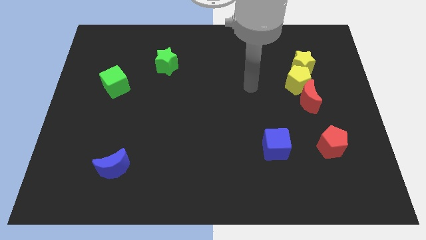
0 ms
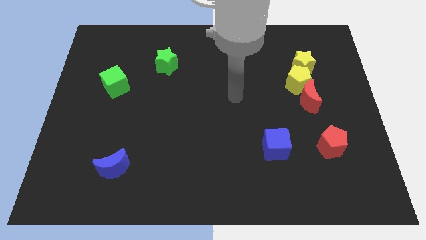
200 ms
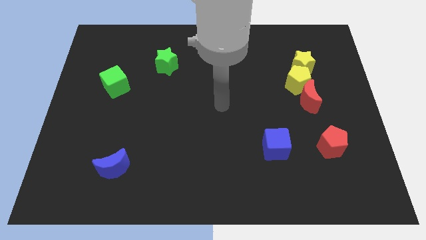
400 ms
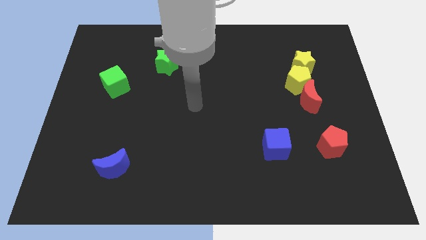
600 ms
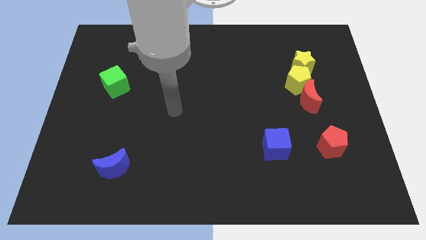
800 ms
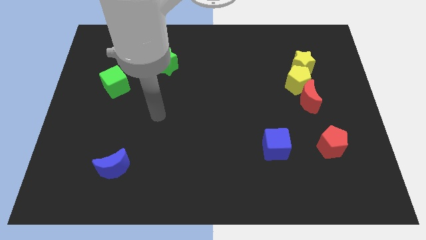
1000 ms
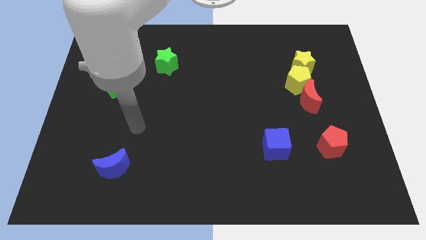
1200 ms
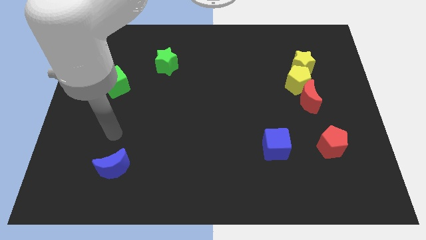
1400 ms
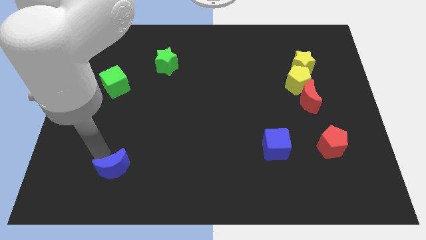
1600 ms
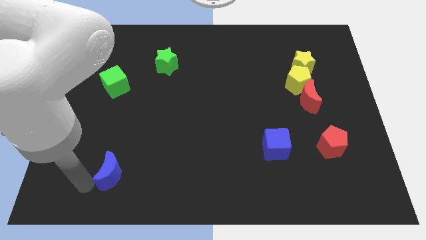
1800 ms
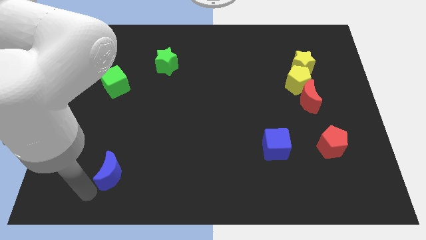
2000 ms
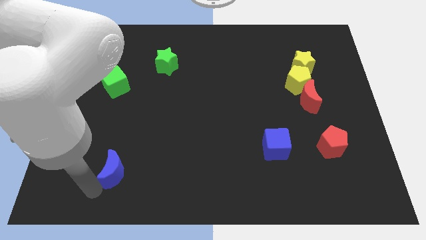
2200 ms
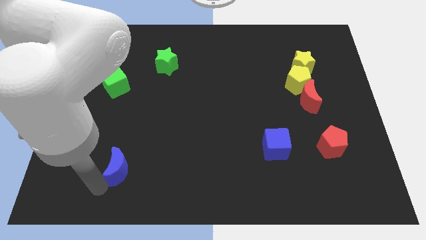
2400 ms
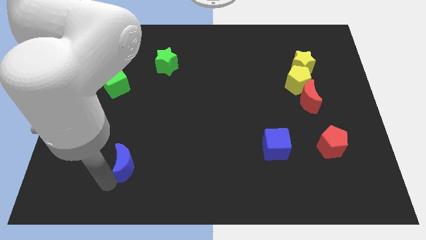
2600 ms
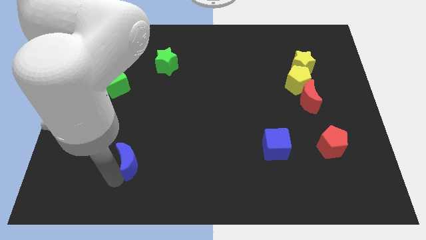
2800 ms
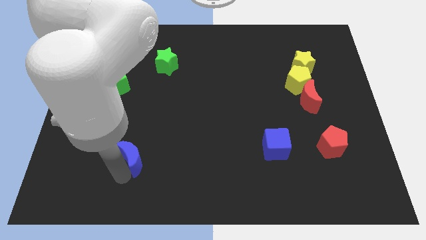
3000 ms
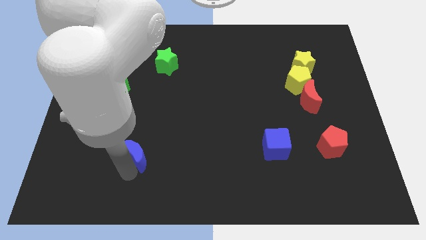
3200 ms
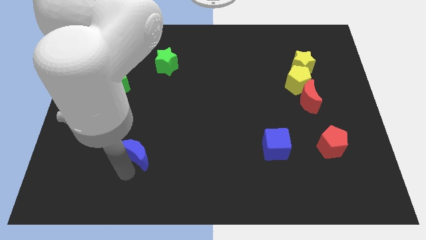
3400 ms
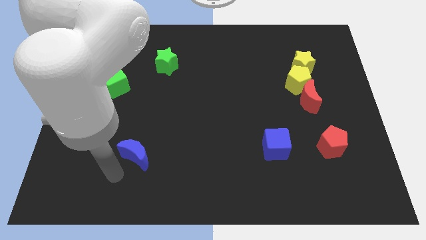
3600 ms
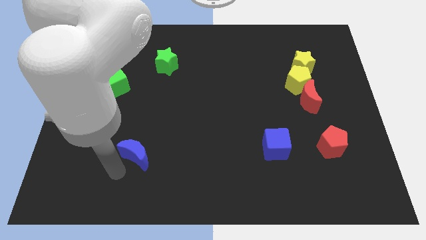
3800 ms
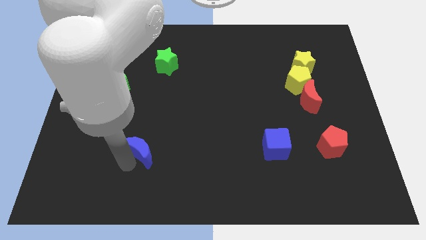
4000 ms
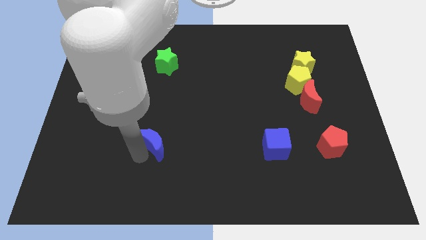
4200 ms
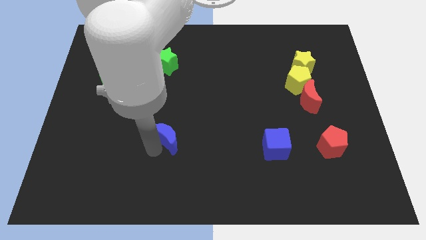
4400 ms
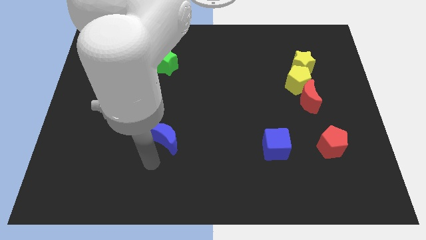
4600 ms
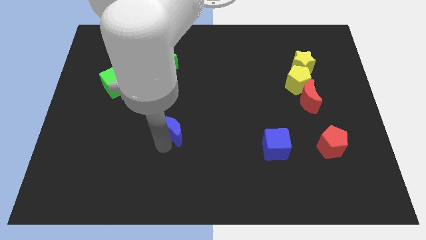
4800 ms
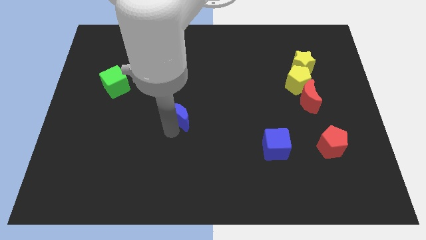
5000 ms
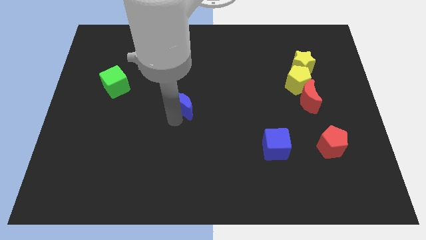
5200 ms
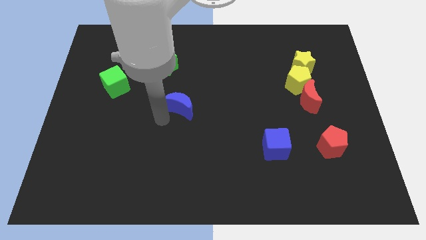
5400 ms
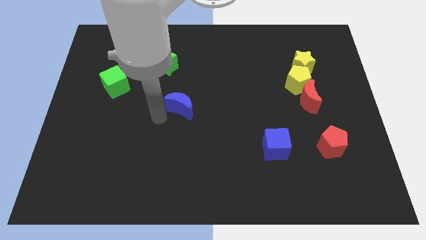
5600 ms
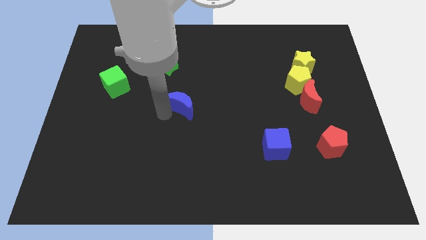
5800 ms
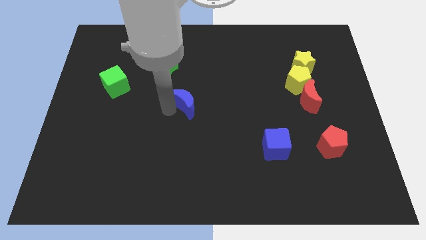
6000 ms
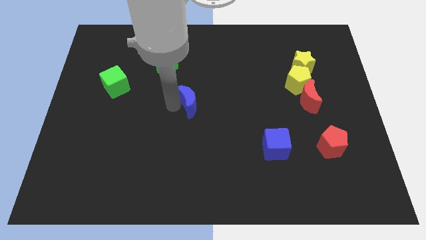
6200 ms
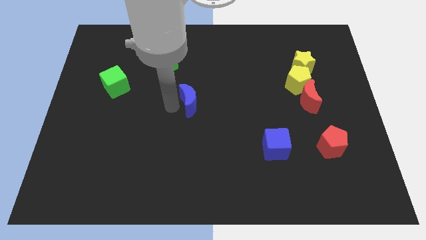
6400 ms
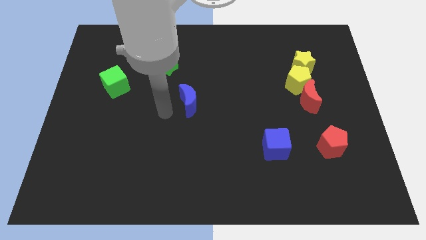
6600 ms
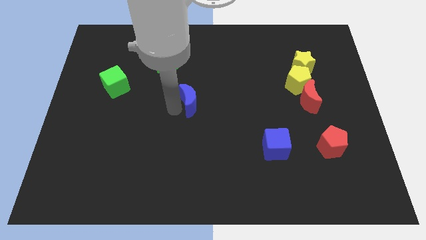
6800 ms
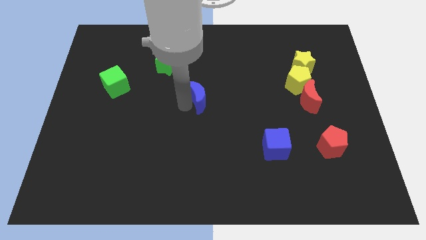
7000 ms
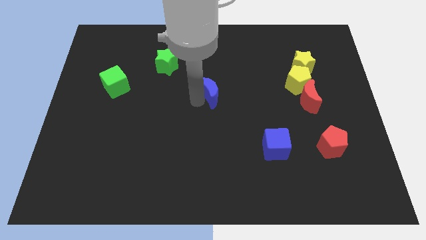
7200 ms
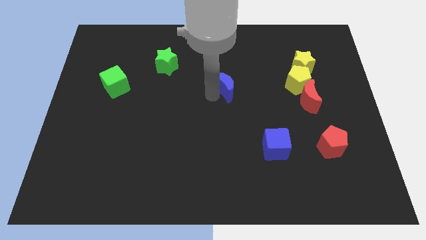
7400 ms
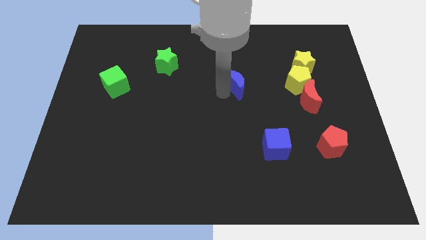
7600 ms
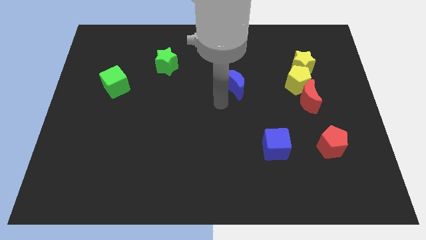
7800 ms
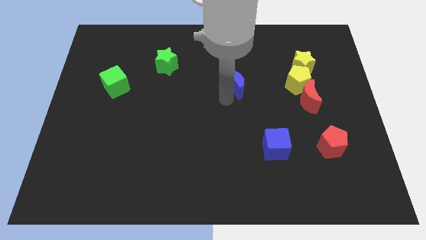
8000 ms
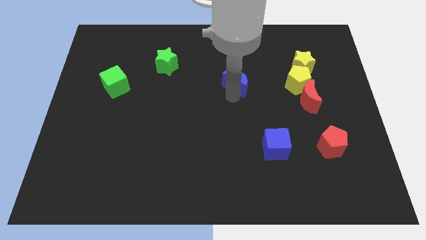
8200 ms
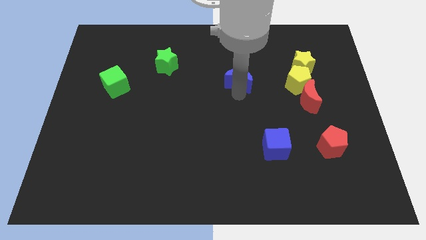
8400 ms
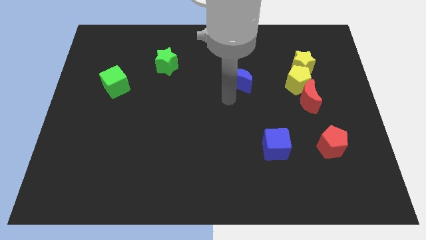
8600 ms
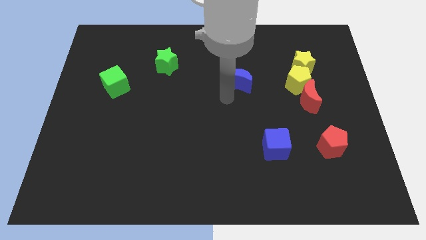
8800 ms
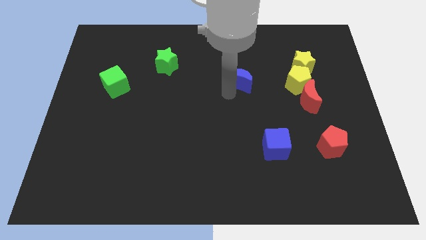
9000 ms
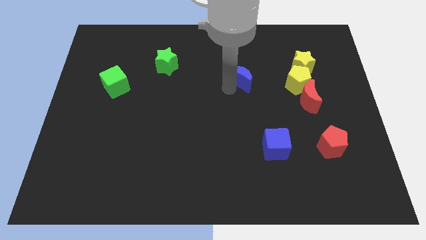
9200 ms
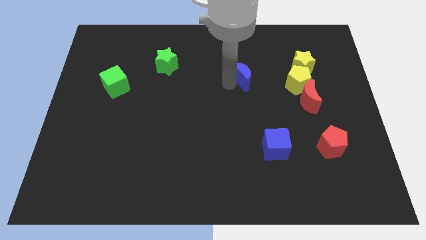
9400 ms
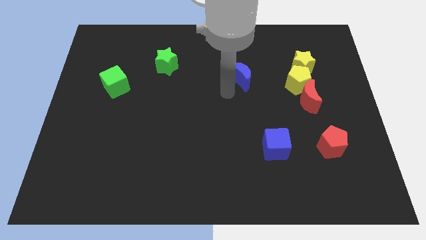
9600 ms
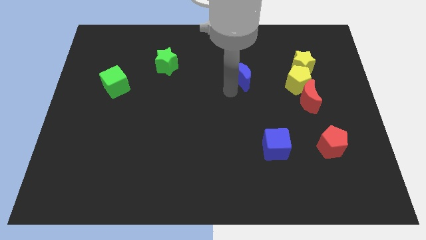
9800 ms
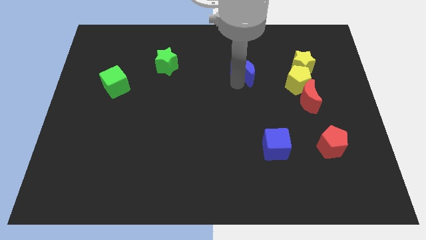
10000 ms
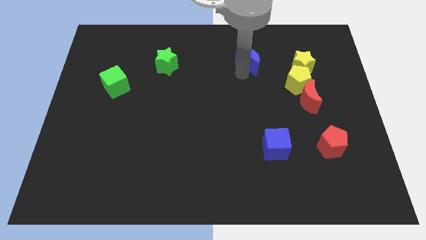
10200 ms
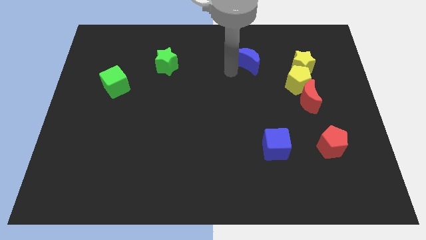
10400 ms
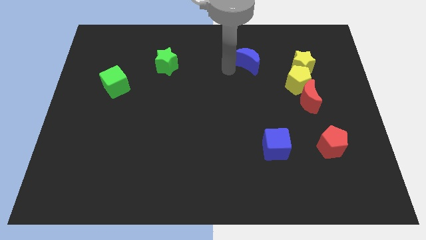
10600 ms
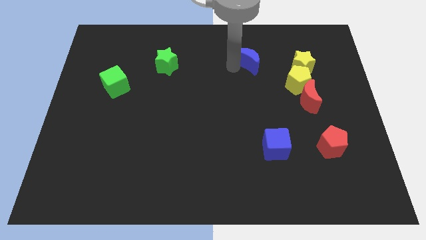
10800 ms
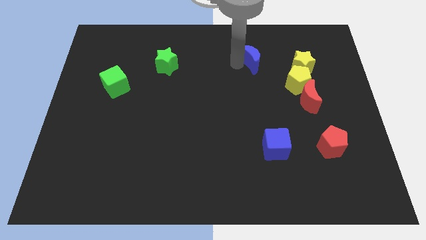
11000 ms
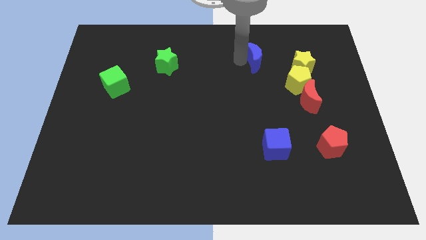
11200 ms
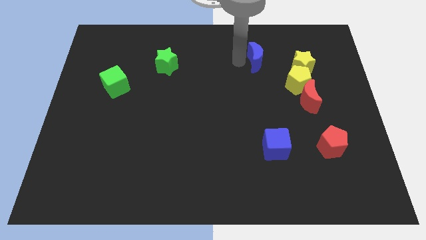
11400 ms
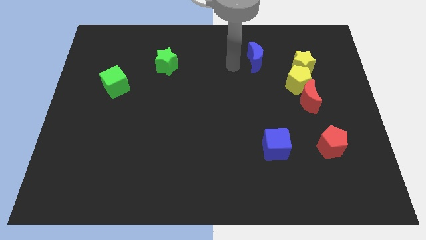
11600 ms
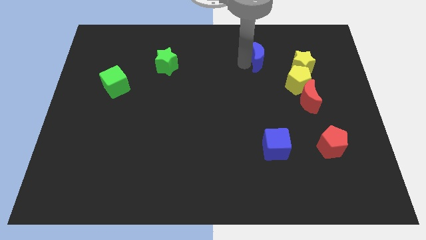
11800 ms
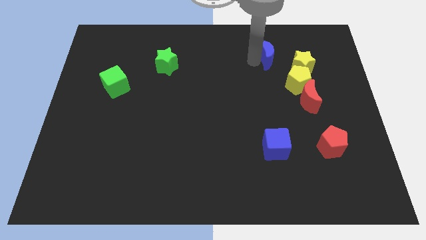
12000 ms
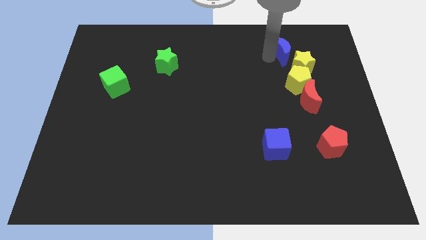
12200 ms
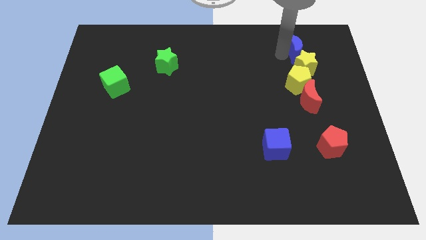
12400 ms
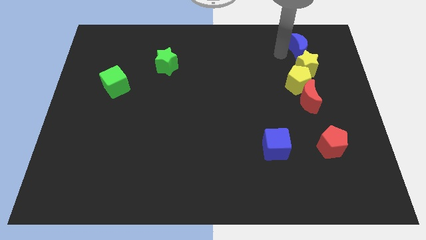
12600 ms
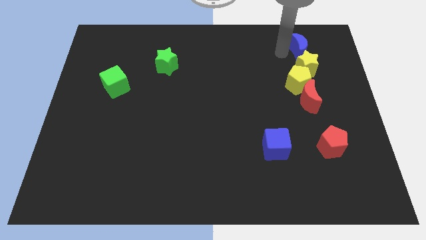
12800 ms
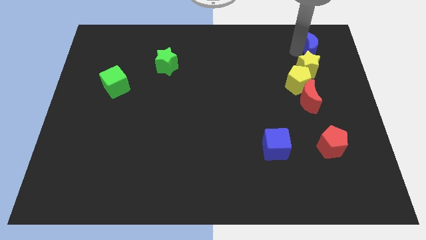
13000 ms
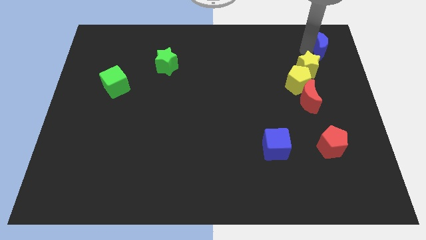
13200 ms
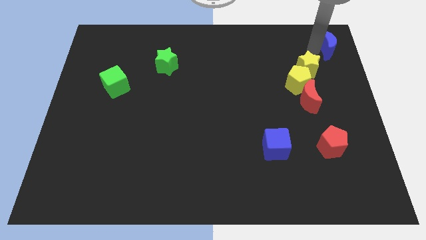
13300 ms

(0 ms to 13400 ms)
put the blue moon to the upper right corner
